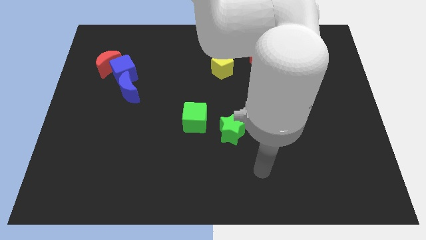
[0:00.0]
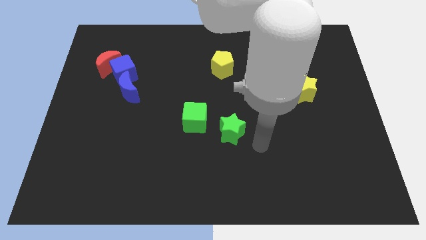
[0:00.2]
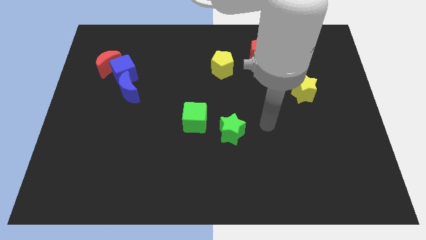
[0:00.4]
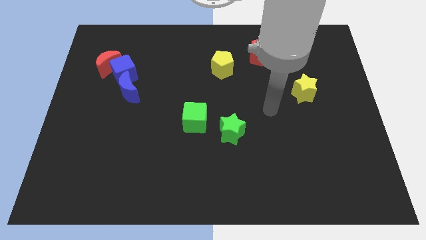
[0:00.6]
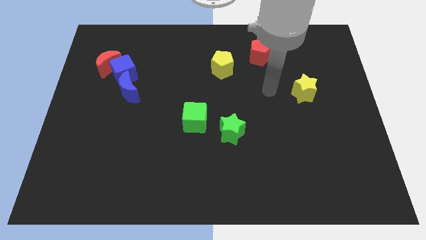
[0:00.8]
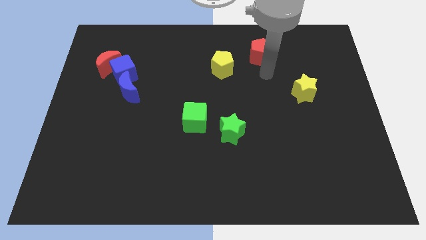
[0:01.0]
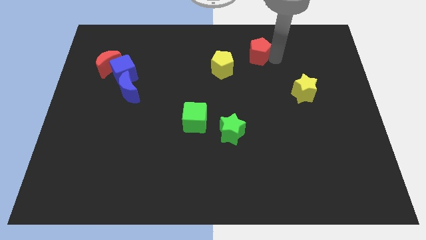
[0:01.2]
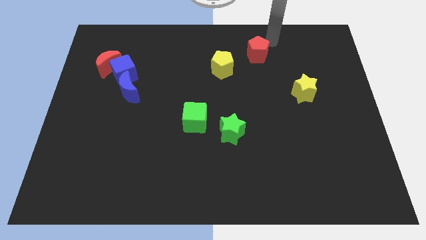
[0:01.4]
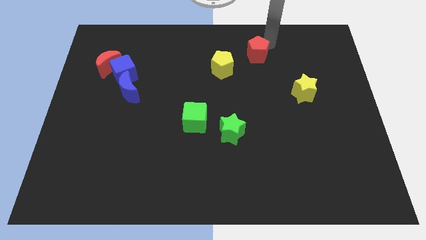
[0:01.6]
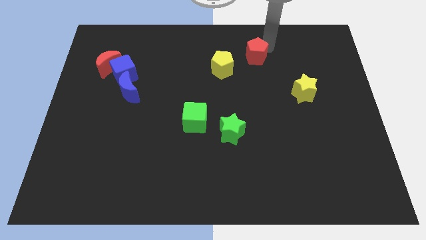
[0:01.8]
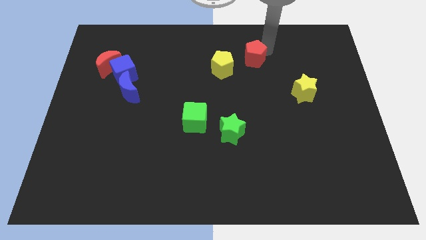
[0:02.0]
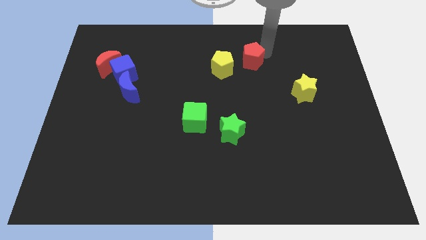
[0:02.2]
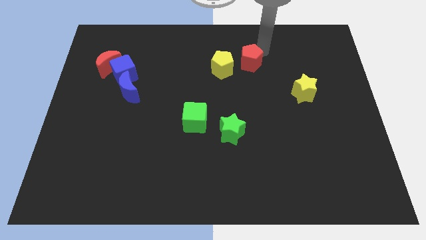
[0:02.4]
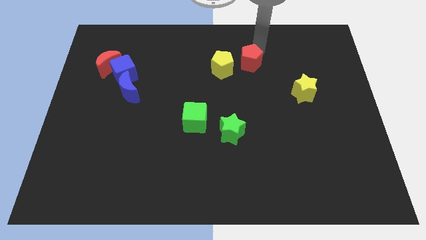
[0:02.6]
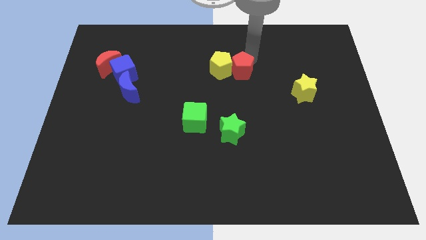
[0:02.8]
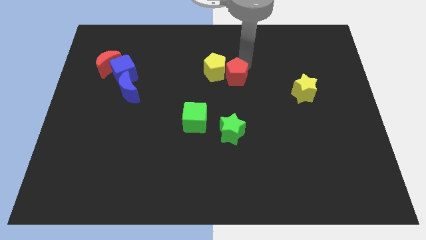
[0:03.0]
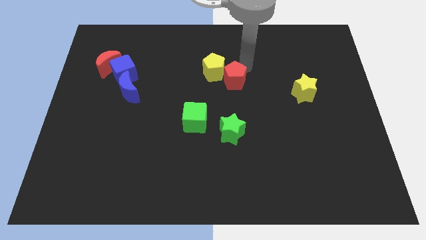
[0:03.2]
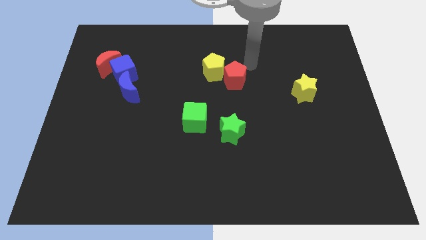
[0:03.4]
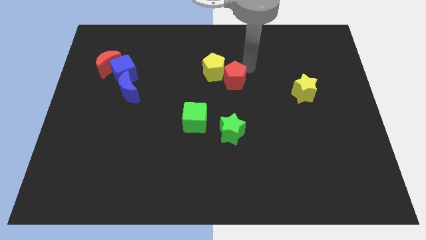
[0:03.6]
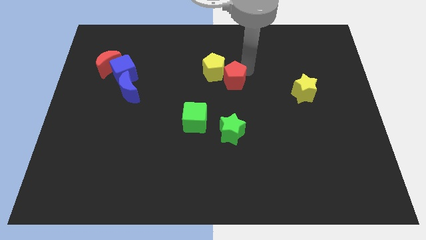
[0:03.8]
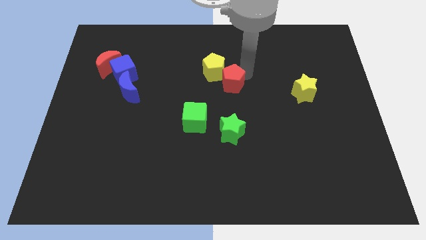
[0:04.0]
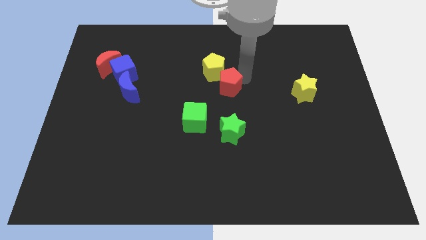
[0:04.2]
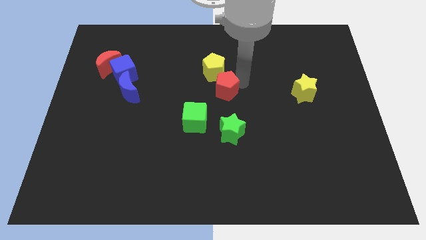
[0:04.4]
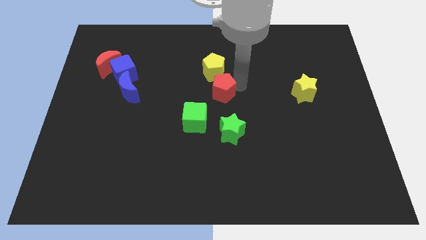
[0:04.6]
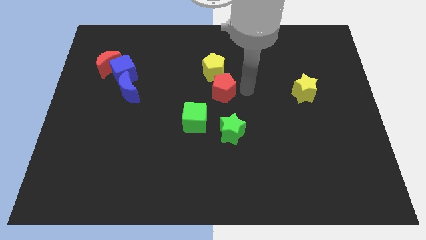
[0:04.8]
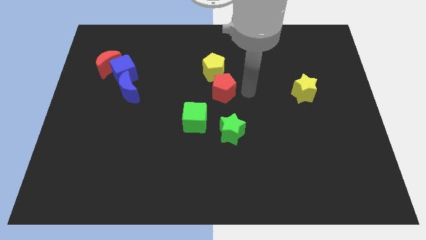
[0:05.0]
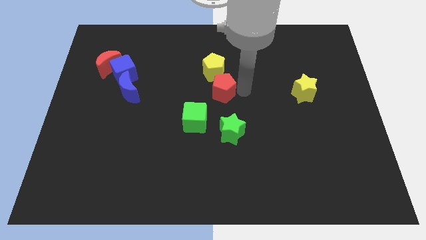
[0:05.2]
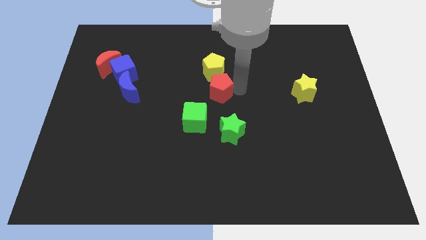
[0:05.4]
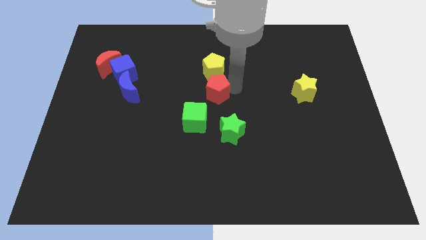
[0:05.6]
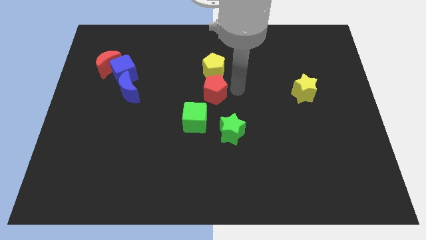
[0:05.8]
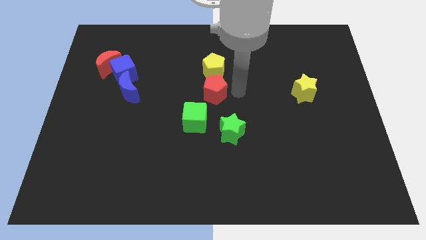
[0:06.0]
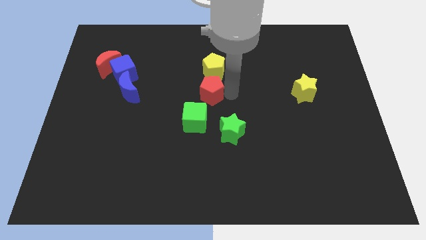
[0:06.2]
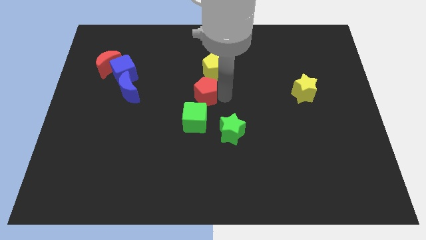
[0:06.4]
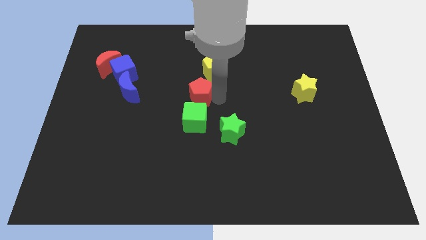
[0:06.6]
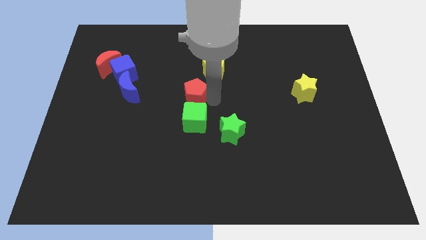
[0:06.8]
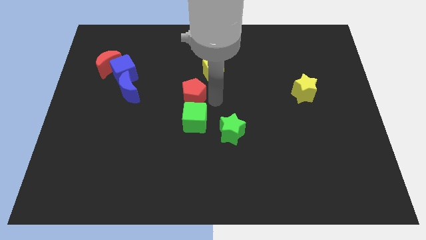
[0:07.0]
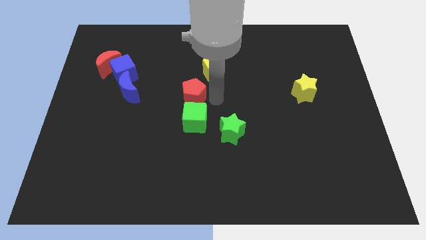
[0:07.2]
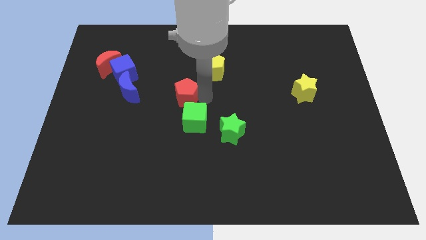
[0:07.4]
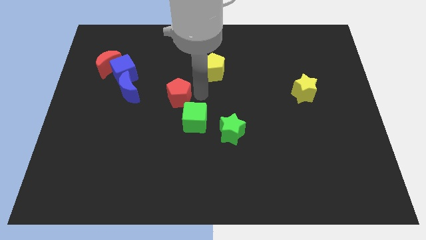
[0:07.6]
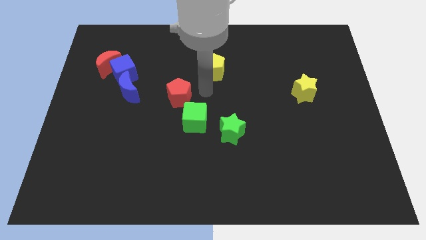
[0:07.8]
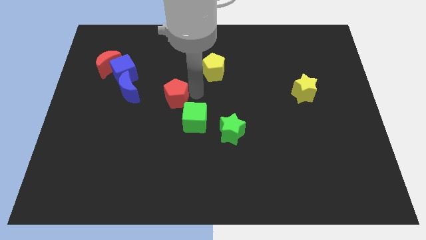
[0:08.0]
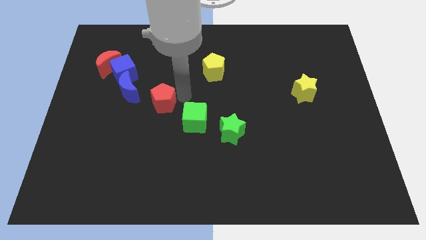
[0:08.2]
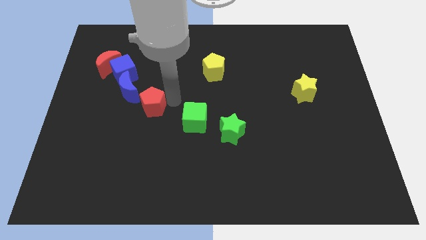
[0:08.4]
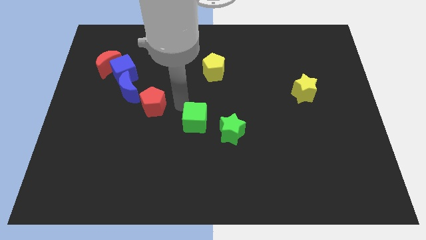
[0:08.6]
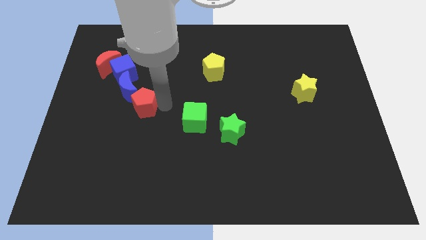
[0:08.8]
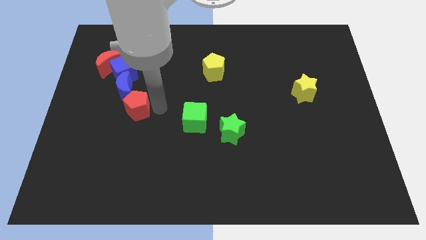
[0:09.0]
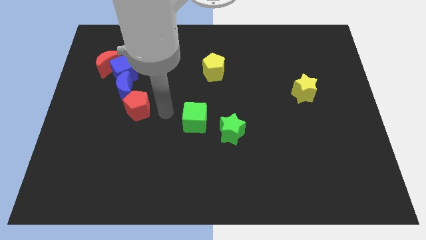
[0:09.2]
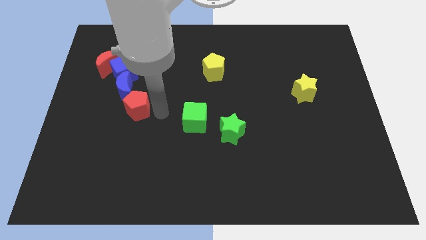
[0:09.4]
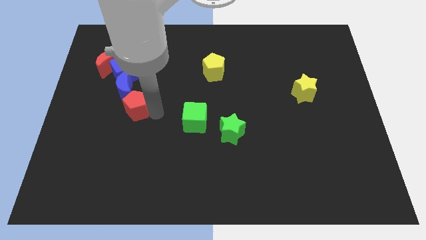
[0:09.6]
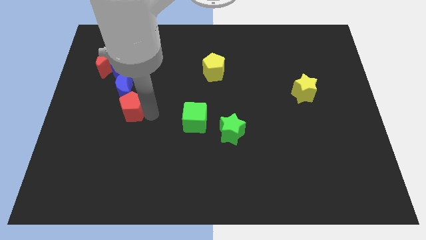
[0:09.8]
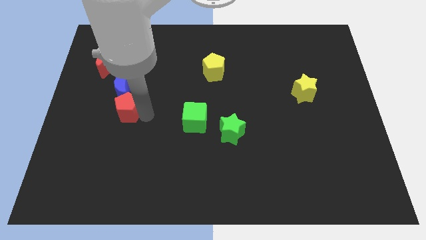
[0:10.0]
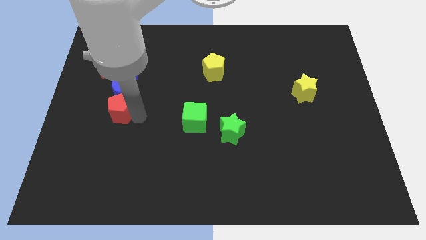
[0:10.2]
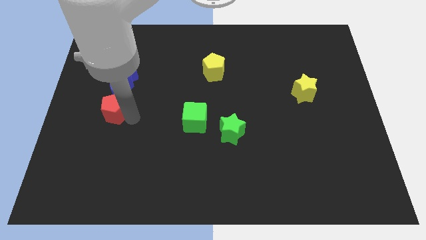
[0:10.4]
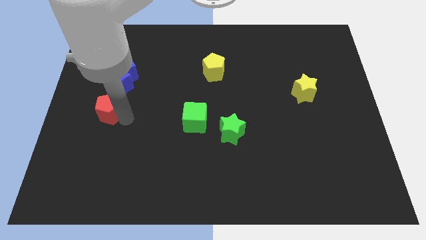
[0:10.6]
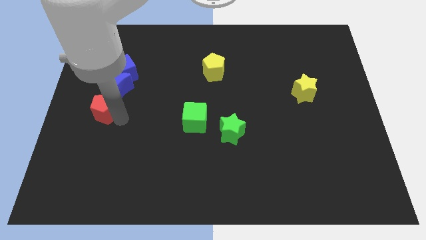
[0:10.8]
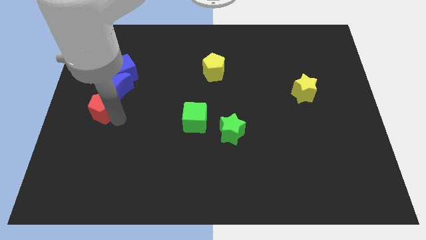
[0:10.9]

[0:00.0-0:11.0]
slide the red pentagon to the left side of the board

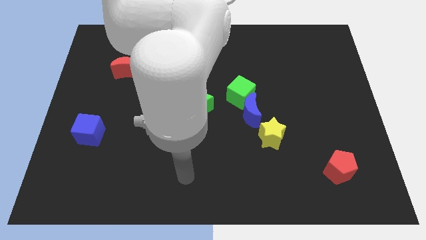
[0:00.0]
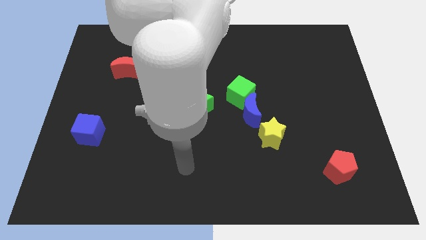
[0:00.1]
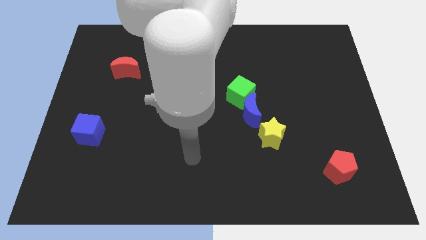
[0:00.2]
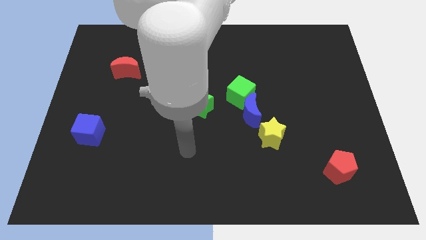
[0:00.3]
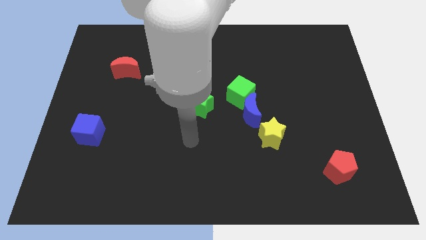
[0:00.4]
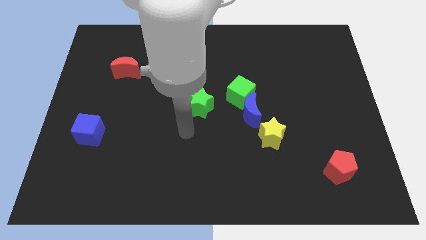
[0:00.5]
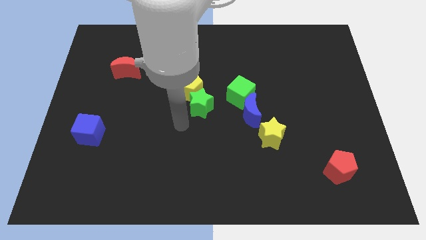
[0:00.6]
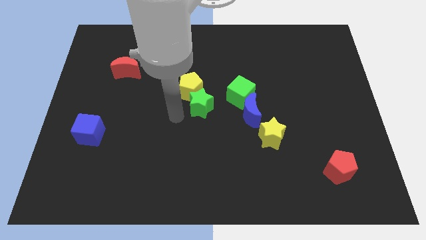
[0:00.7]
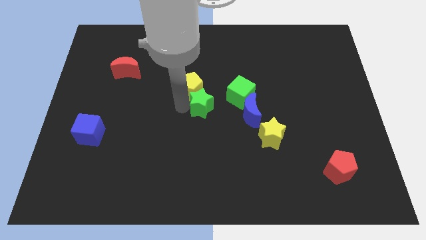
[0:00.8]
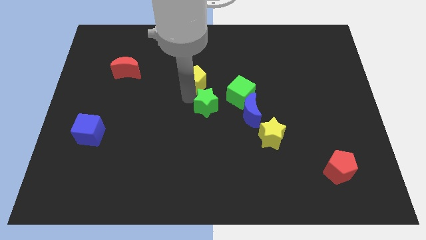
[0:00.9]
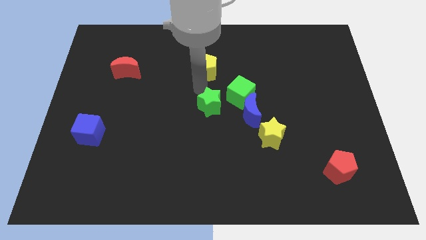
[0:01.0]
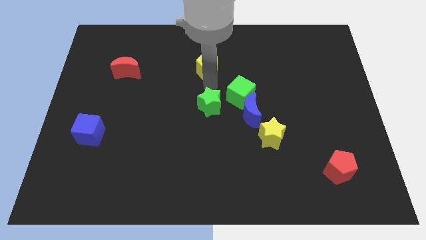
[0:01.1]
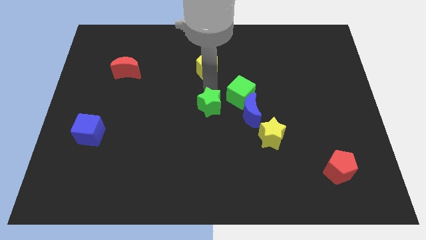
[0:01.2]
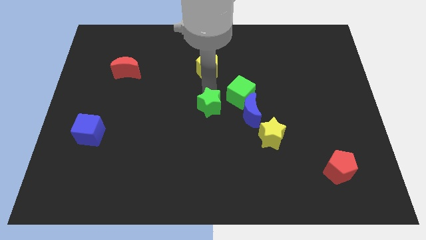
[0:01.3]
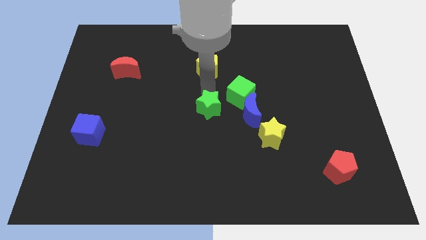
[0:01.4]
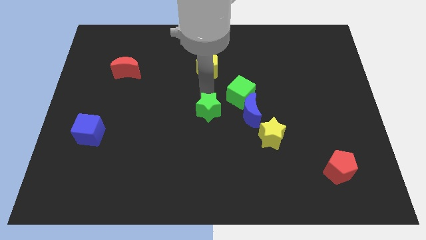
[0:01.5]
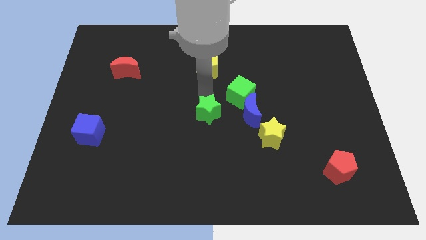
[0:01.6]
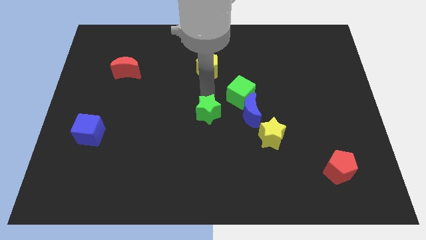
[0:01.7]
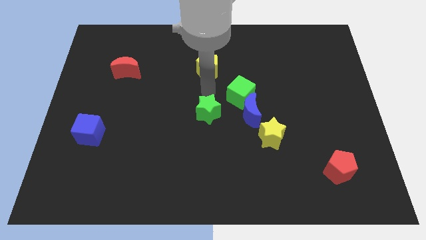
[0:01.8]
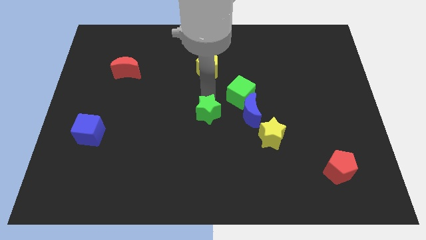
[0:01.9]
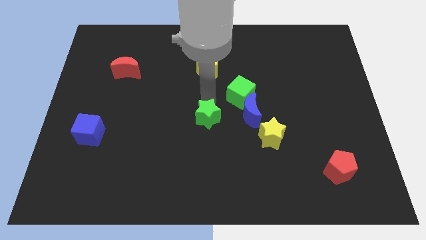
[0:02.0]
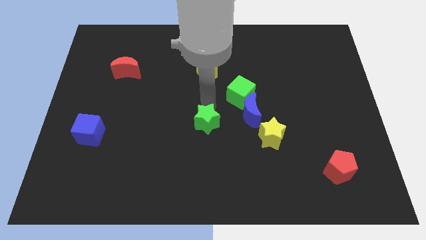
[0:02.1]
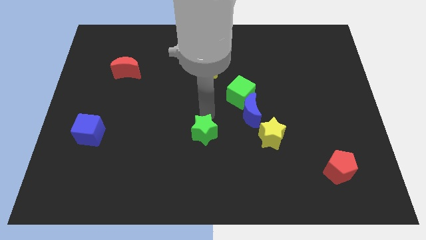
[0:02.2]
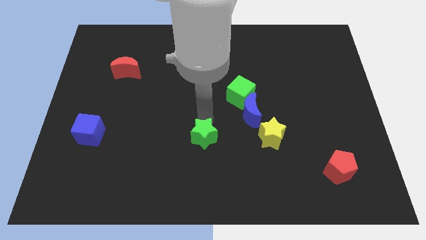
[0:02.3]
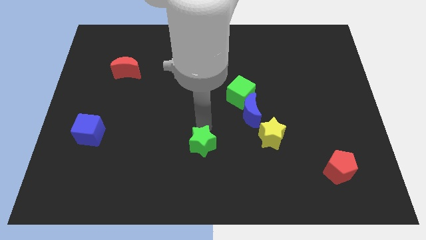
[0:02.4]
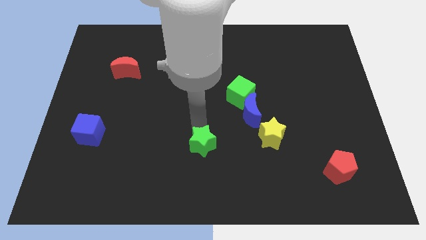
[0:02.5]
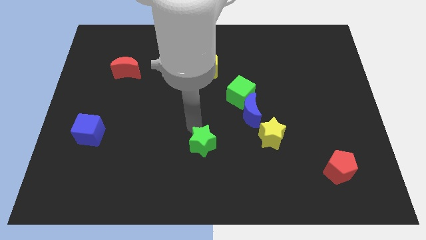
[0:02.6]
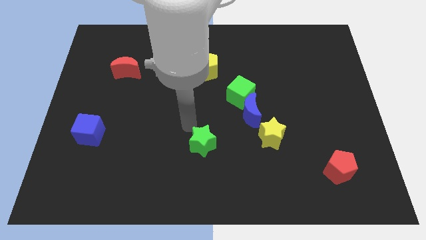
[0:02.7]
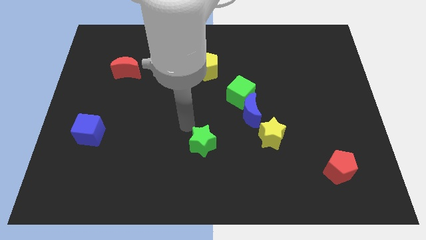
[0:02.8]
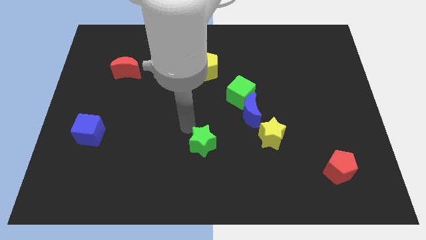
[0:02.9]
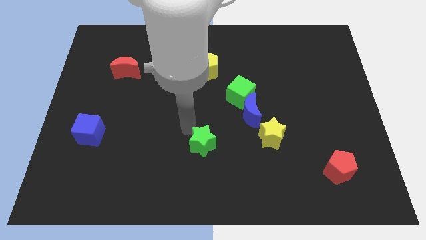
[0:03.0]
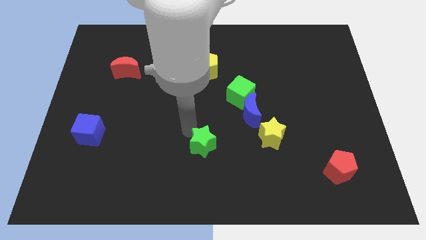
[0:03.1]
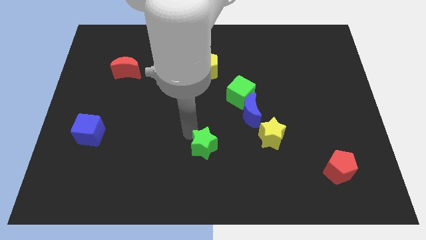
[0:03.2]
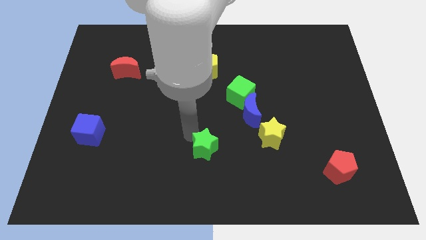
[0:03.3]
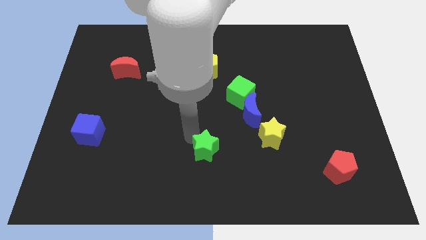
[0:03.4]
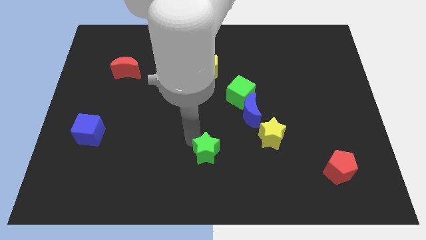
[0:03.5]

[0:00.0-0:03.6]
move the green star to the bottom side
